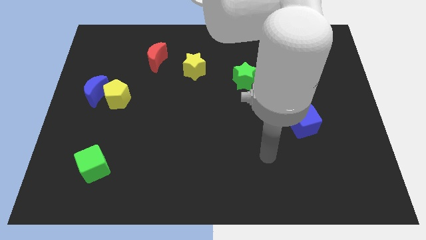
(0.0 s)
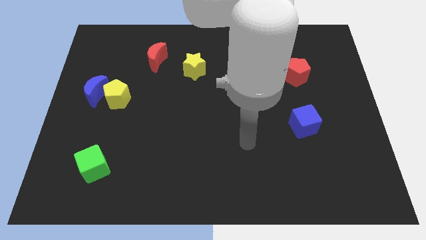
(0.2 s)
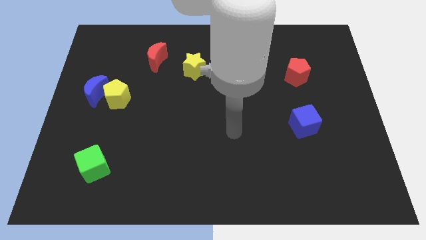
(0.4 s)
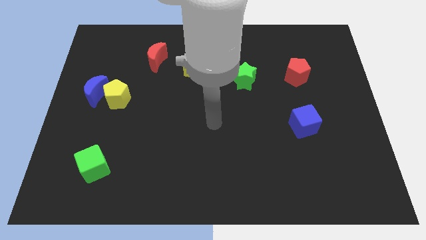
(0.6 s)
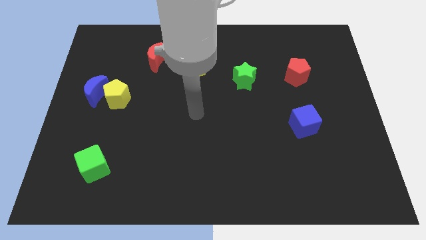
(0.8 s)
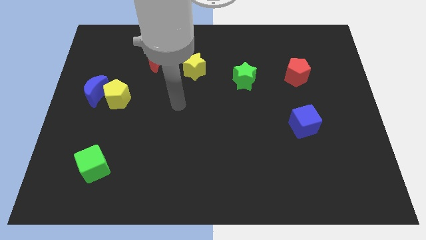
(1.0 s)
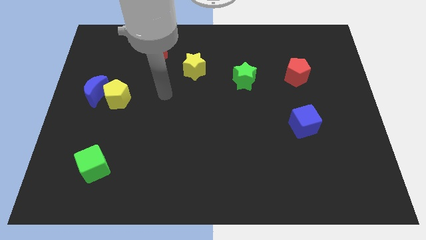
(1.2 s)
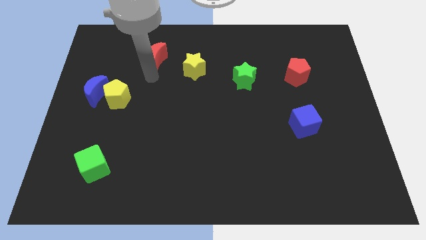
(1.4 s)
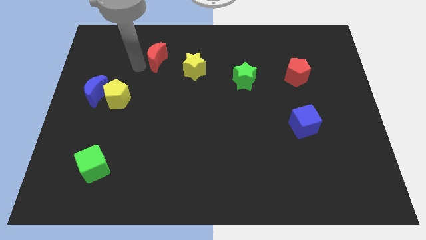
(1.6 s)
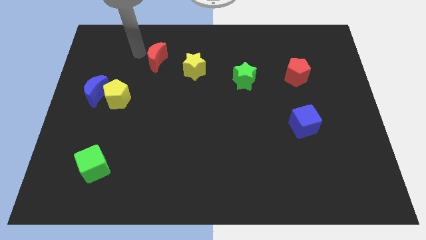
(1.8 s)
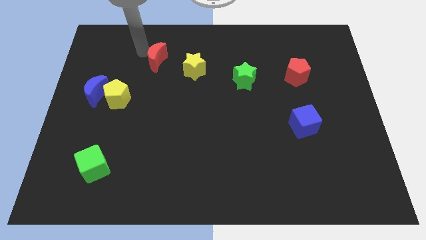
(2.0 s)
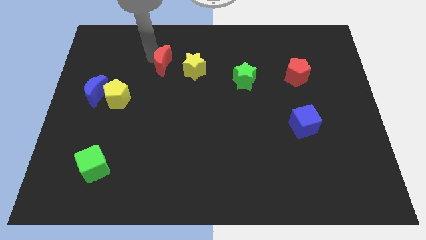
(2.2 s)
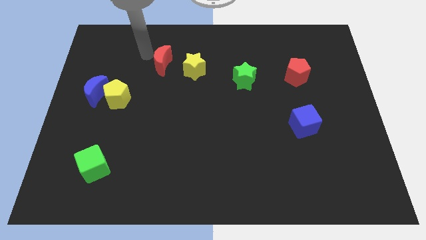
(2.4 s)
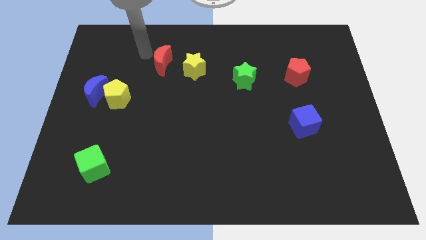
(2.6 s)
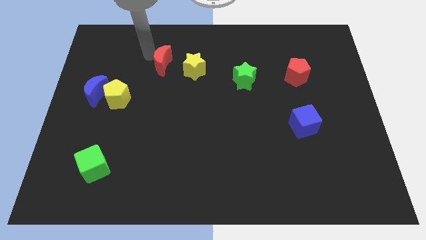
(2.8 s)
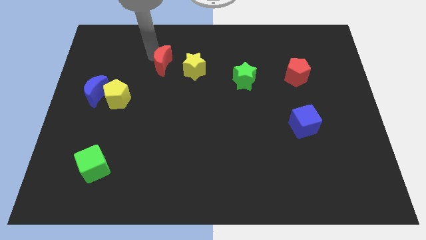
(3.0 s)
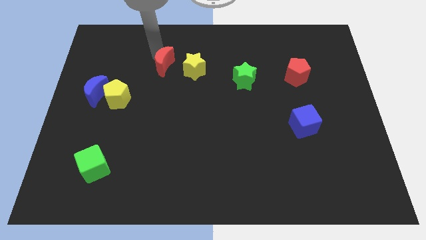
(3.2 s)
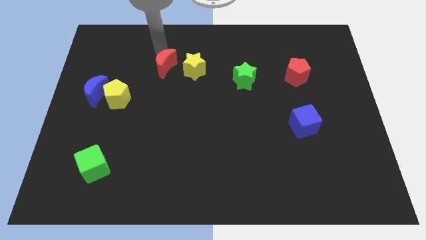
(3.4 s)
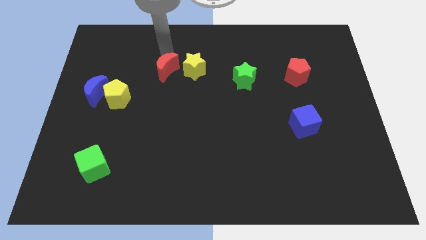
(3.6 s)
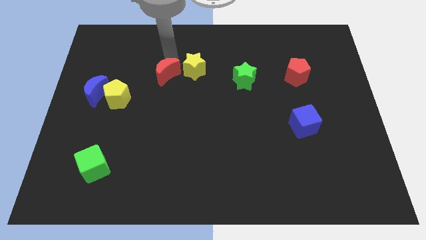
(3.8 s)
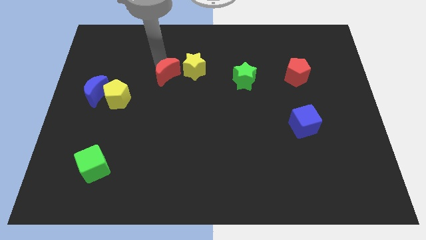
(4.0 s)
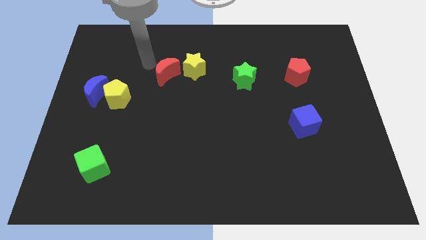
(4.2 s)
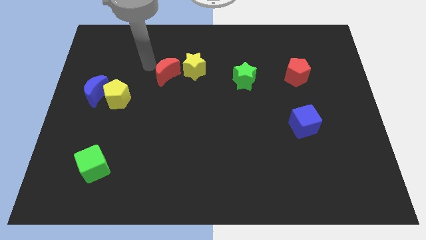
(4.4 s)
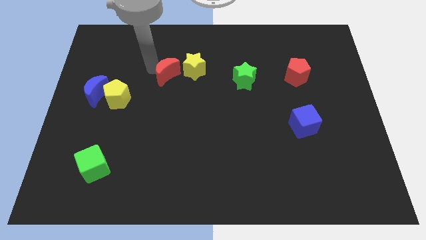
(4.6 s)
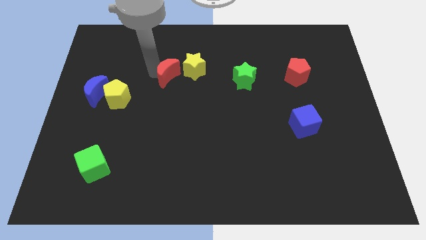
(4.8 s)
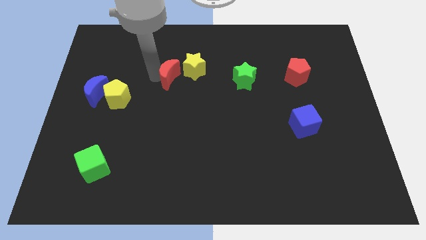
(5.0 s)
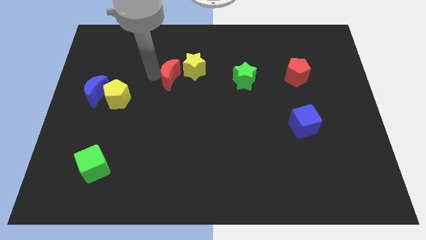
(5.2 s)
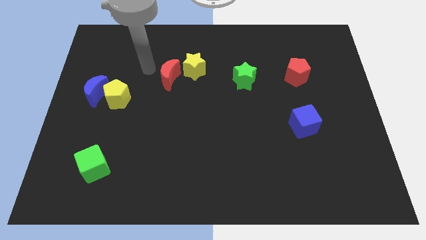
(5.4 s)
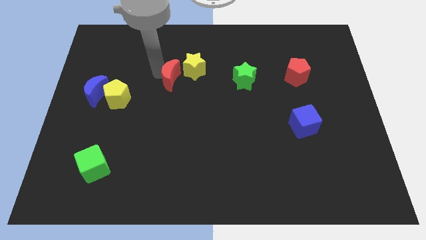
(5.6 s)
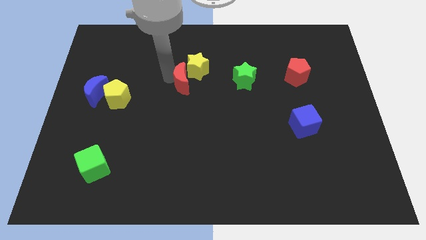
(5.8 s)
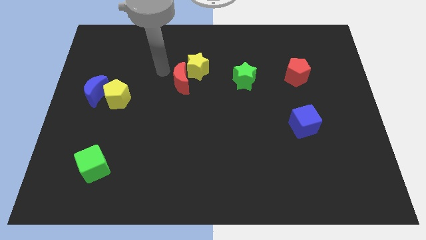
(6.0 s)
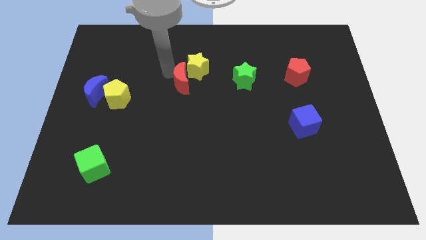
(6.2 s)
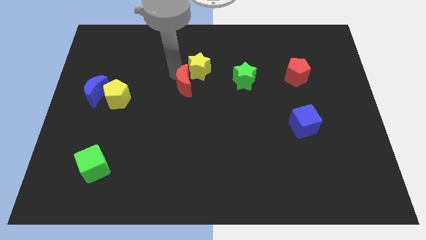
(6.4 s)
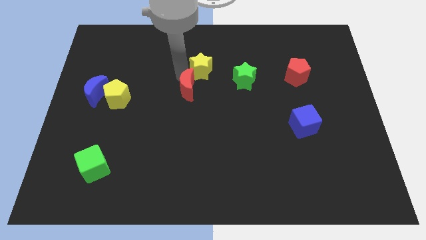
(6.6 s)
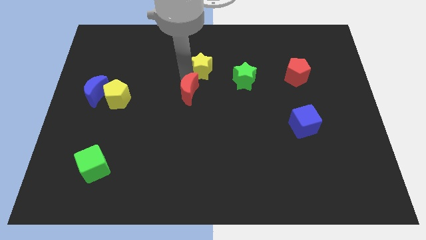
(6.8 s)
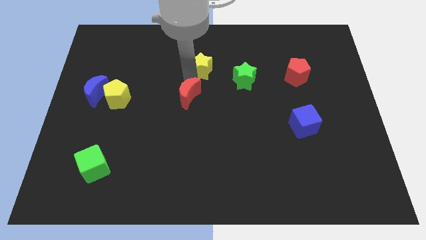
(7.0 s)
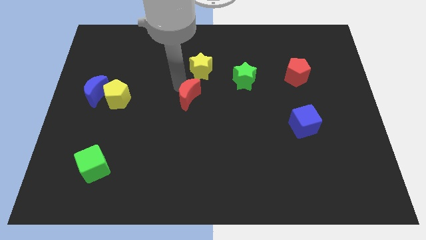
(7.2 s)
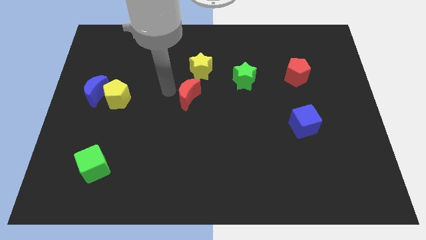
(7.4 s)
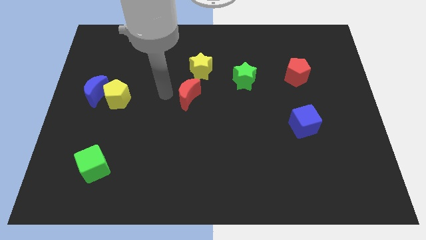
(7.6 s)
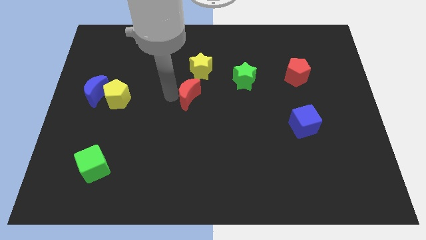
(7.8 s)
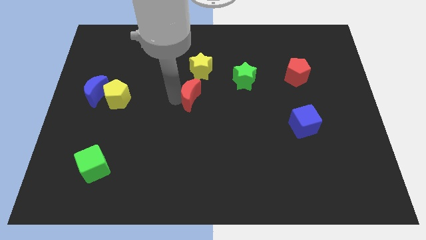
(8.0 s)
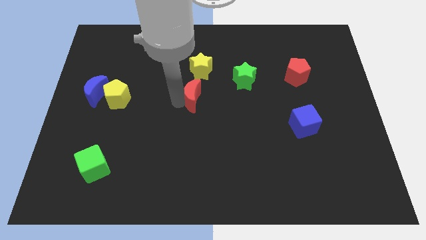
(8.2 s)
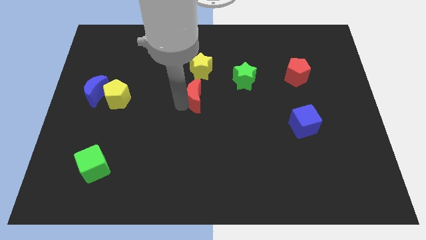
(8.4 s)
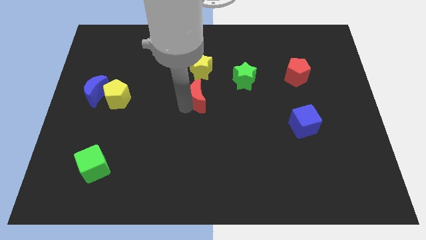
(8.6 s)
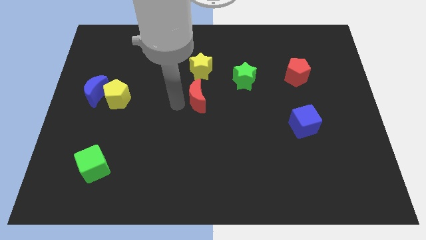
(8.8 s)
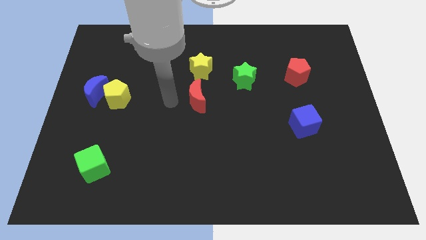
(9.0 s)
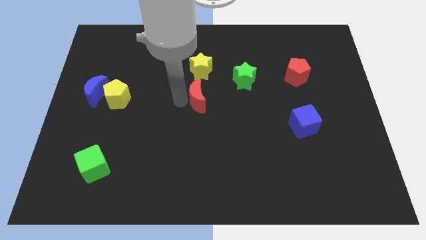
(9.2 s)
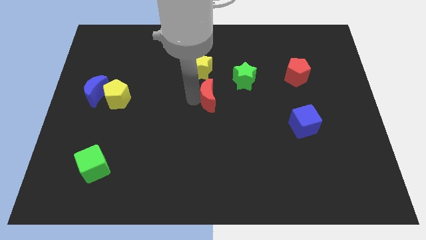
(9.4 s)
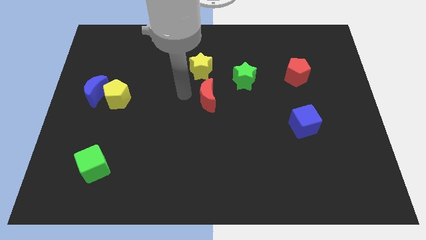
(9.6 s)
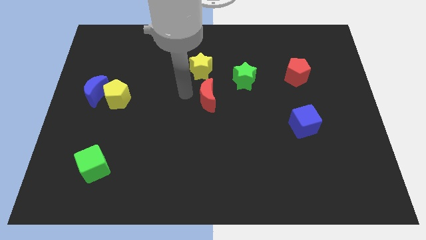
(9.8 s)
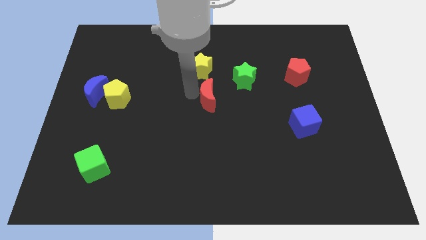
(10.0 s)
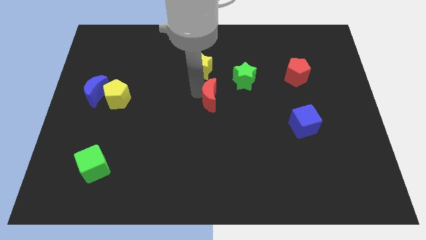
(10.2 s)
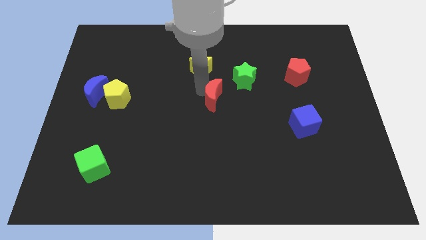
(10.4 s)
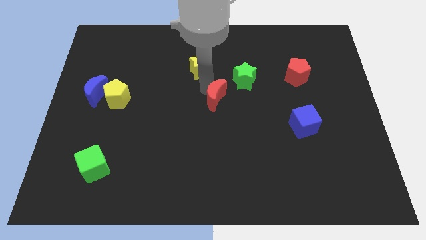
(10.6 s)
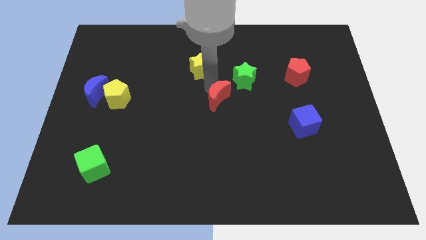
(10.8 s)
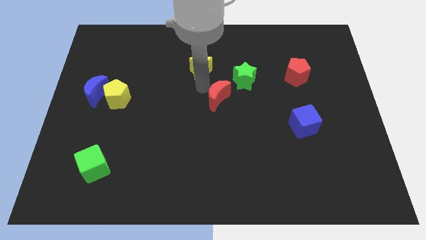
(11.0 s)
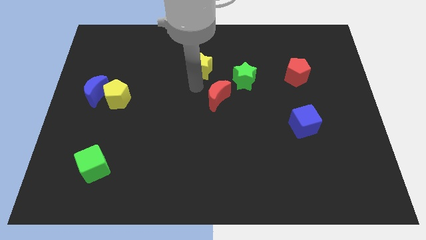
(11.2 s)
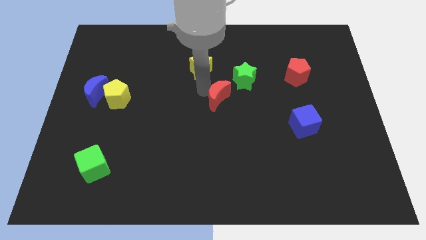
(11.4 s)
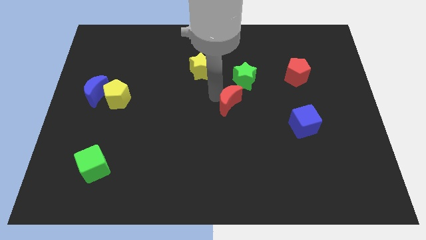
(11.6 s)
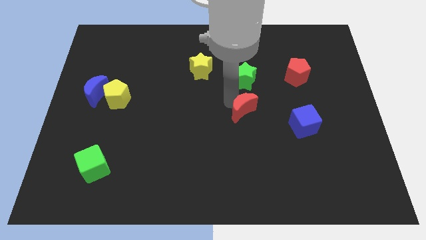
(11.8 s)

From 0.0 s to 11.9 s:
slide the red moon just left of the blue cube

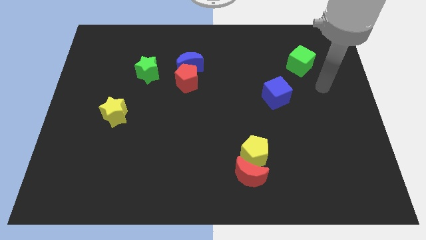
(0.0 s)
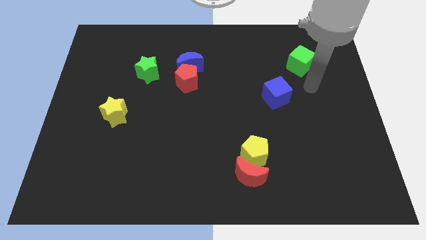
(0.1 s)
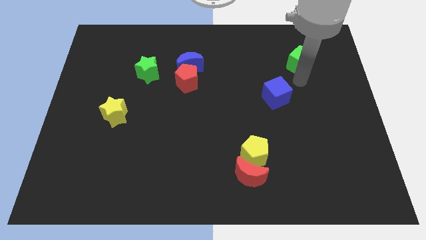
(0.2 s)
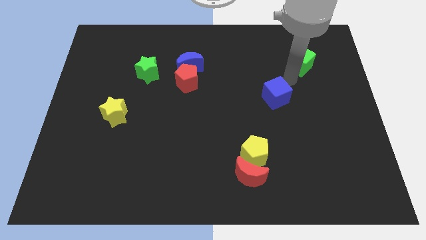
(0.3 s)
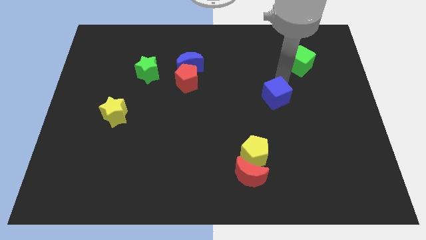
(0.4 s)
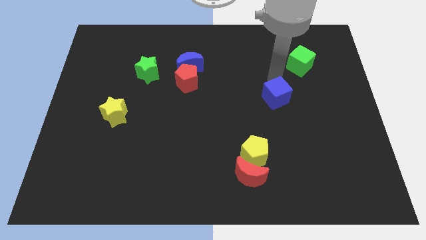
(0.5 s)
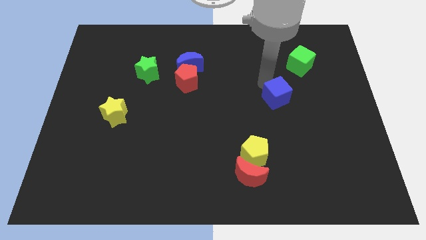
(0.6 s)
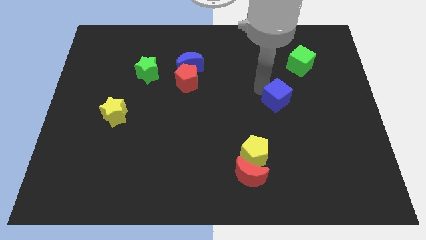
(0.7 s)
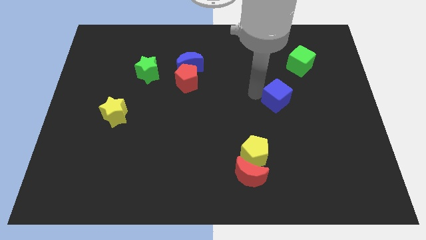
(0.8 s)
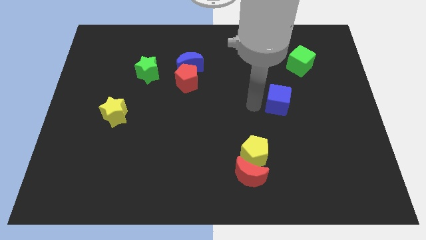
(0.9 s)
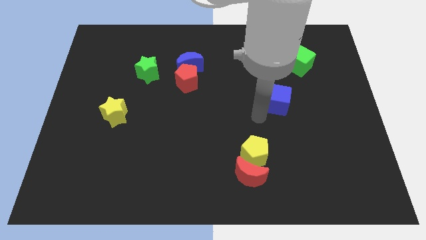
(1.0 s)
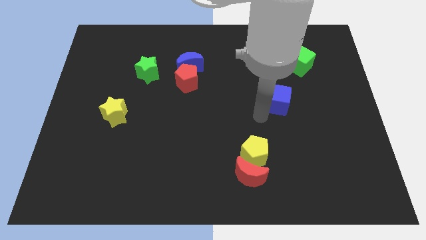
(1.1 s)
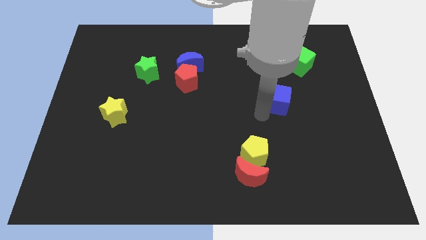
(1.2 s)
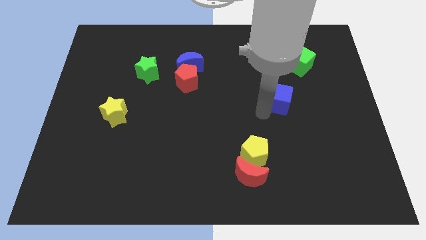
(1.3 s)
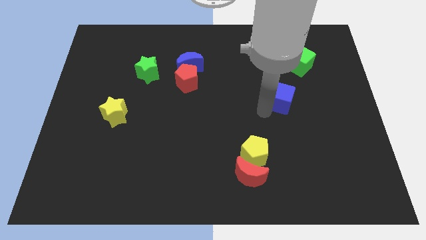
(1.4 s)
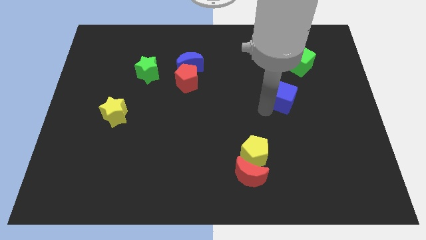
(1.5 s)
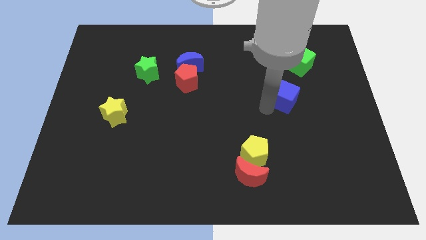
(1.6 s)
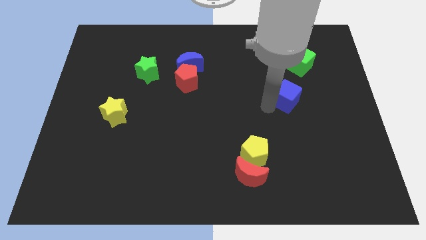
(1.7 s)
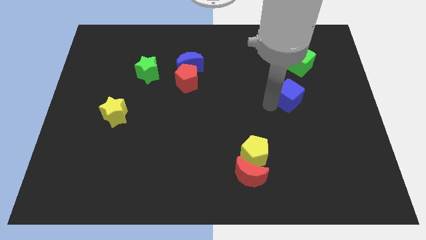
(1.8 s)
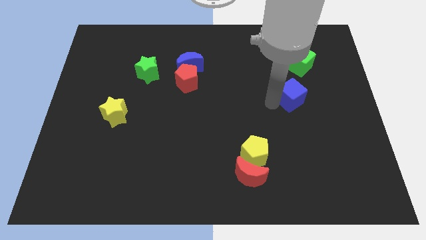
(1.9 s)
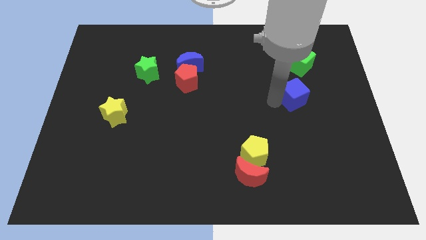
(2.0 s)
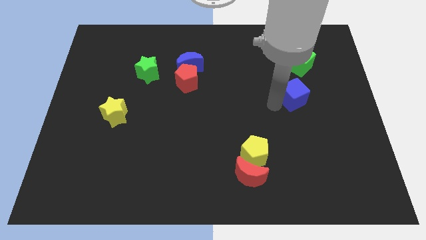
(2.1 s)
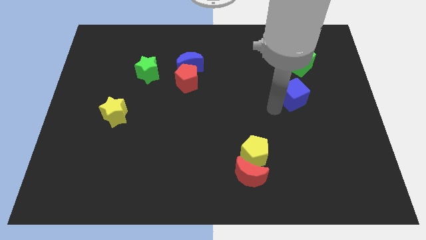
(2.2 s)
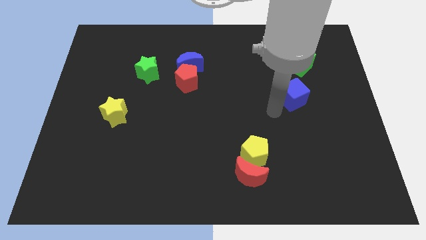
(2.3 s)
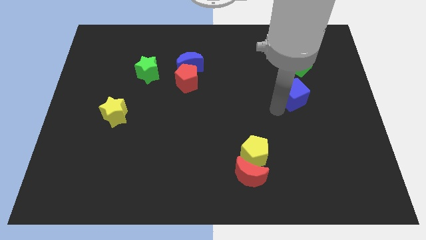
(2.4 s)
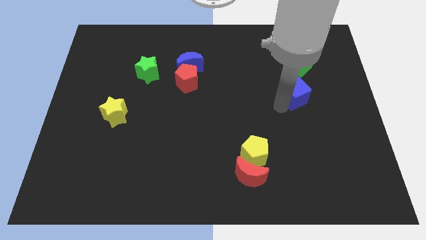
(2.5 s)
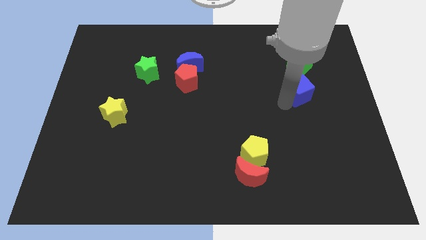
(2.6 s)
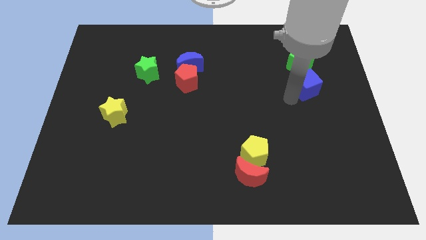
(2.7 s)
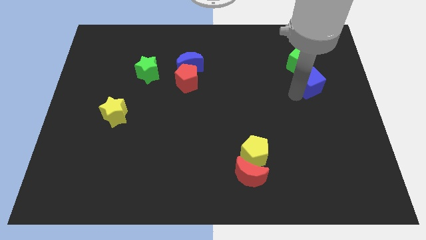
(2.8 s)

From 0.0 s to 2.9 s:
slide the blue cube to the bottom right of the green cube
